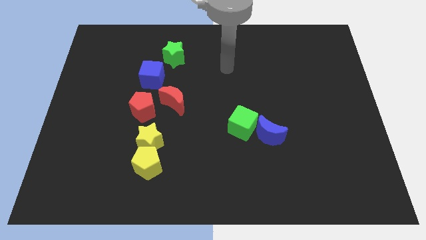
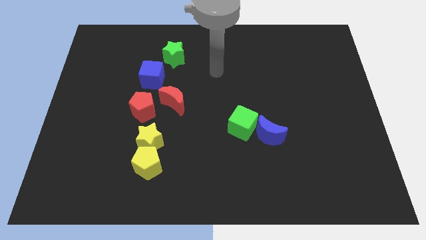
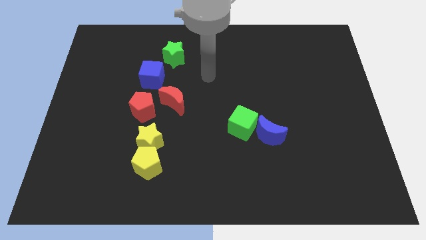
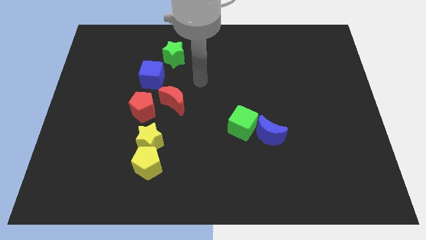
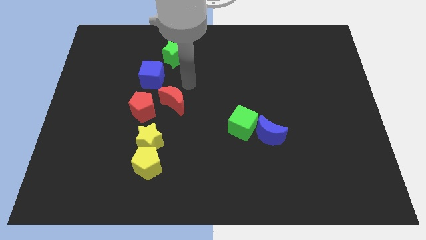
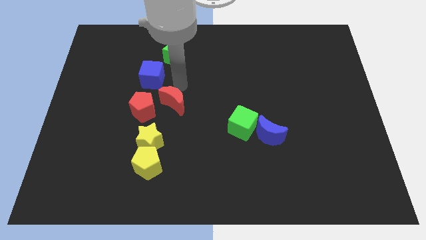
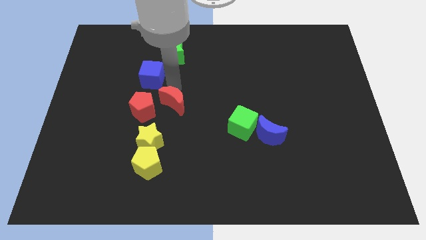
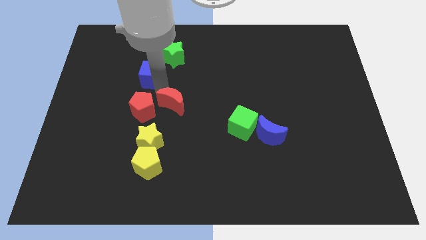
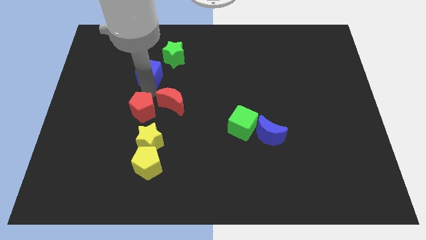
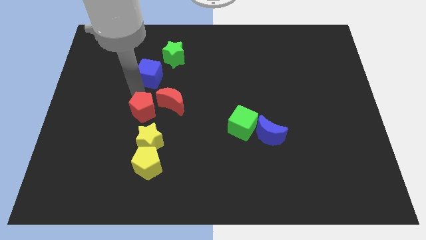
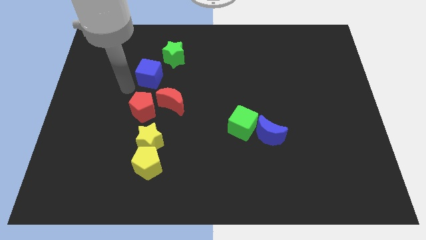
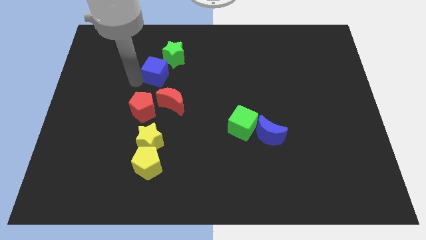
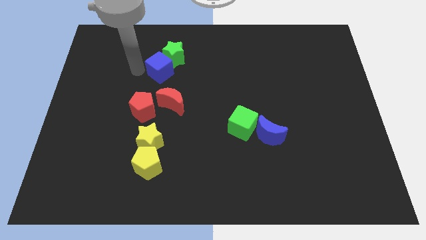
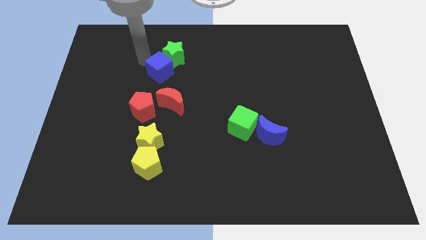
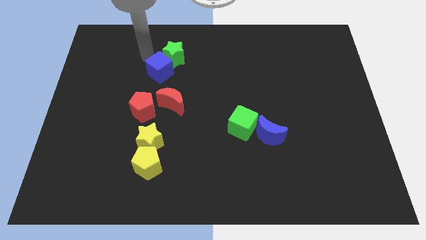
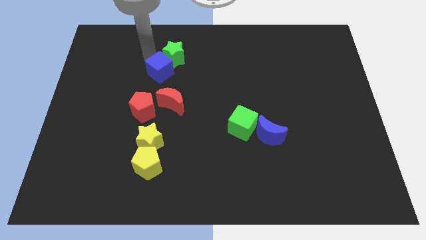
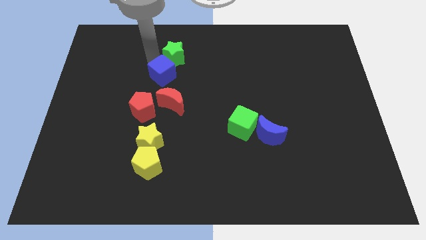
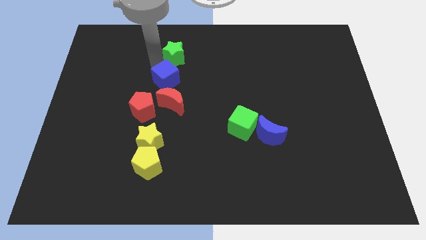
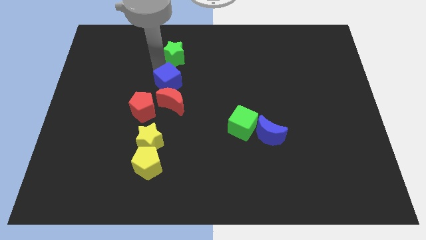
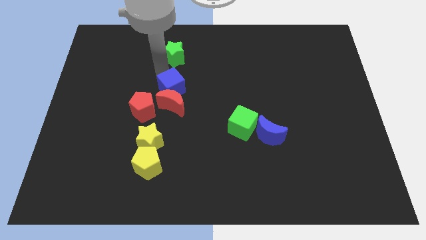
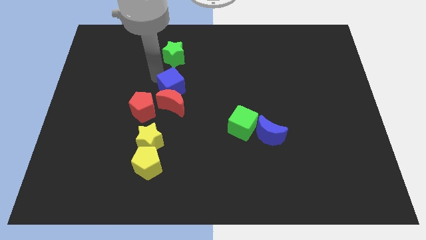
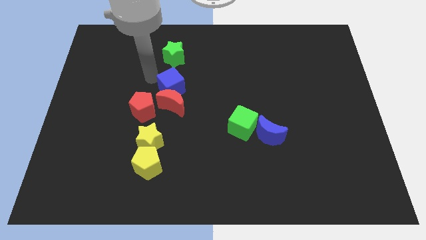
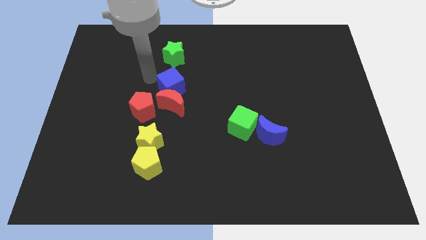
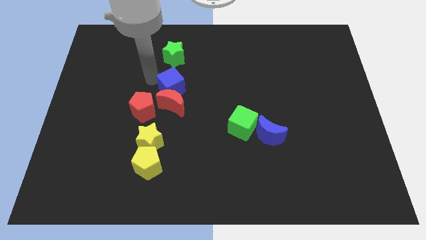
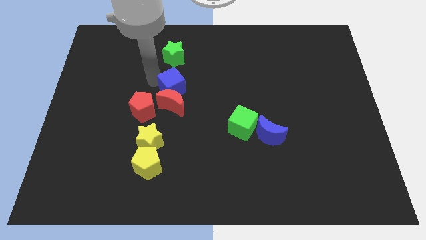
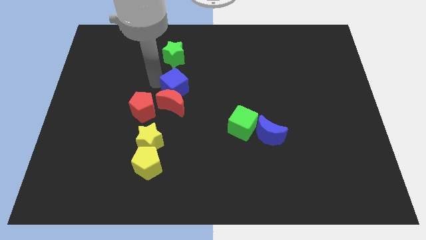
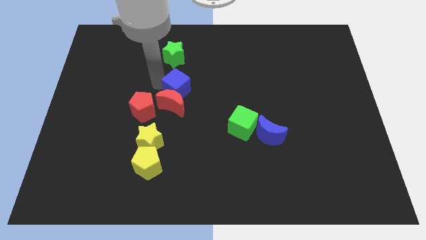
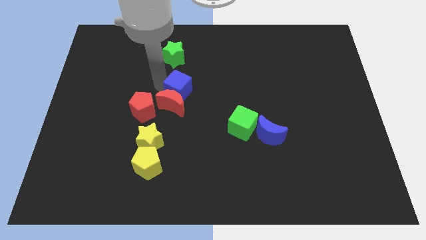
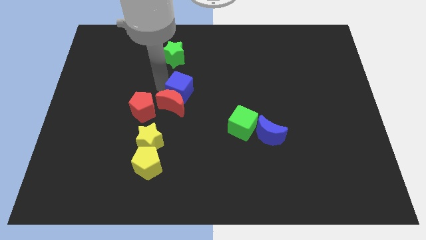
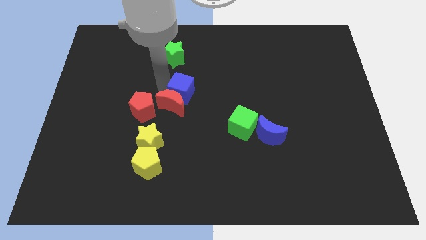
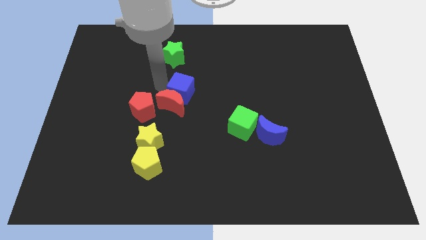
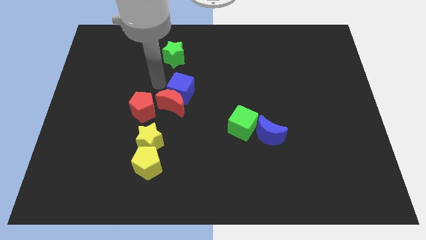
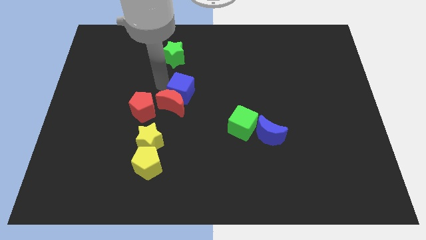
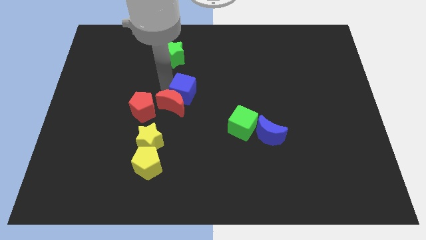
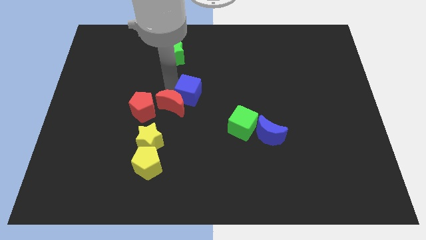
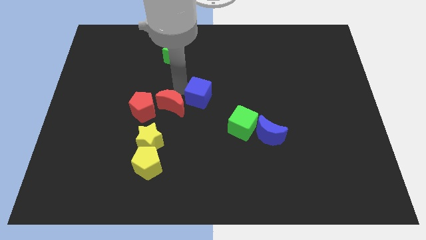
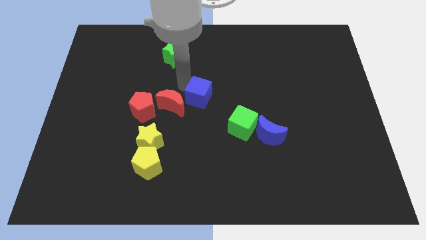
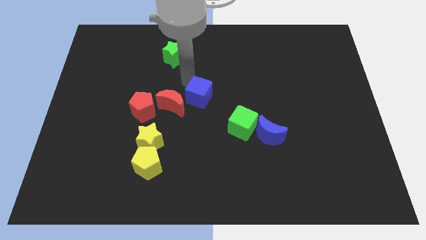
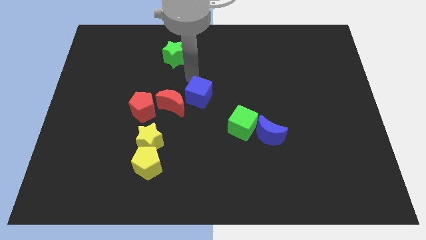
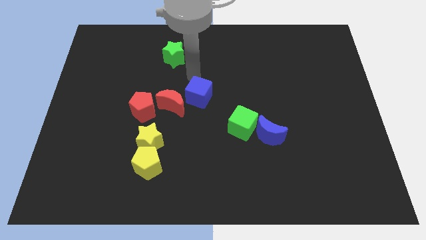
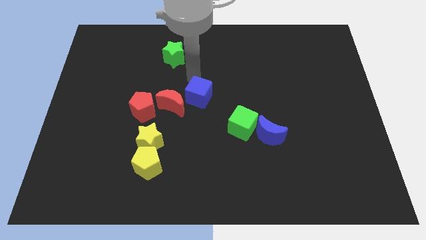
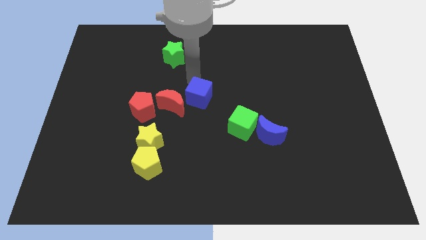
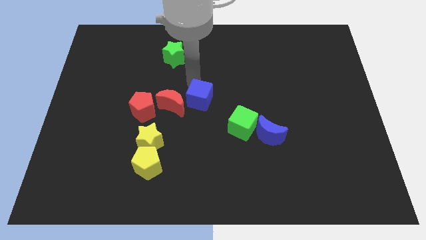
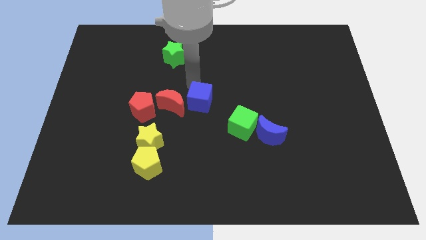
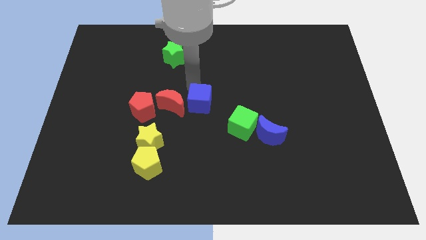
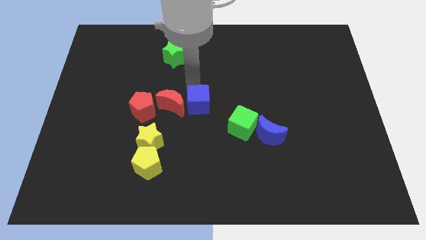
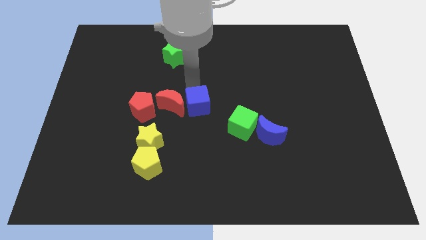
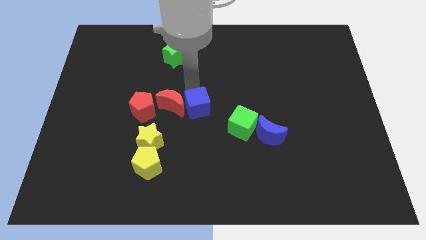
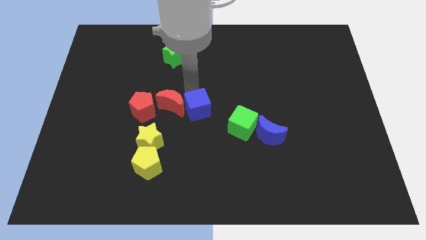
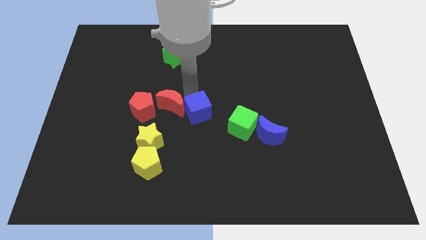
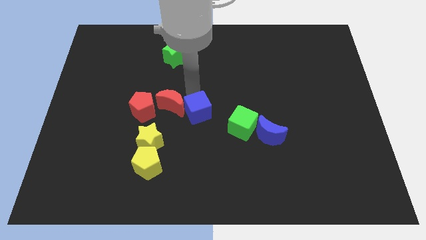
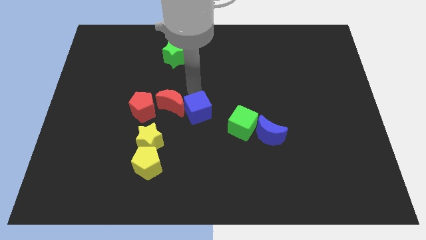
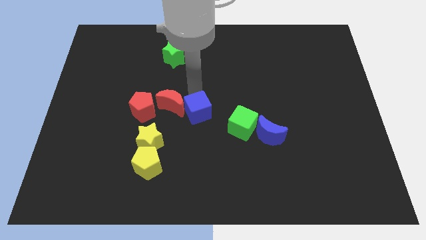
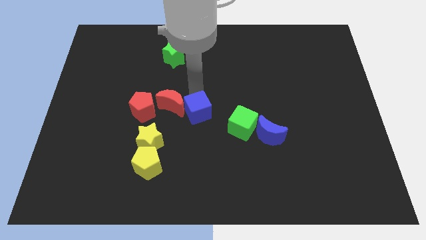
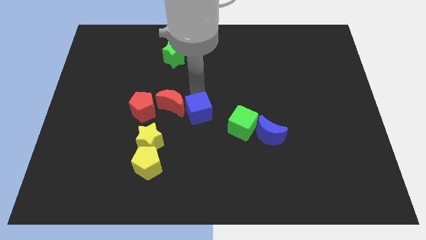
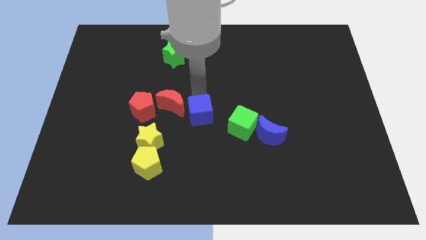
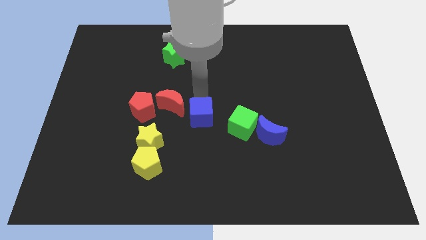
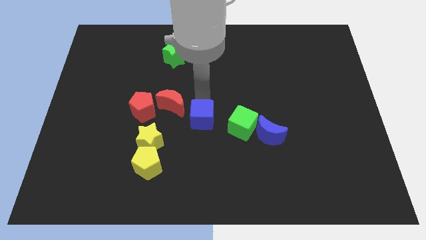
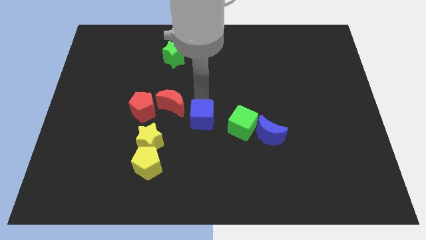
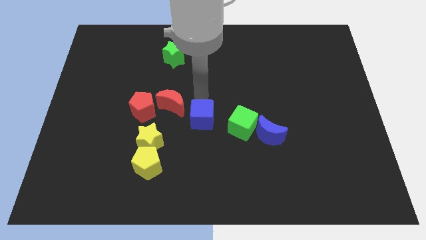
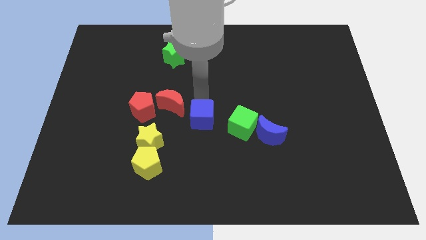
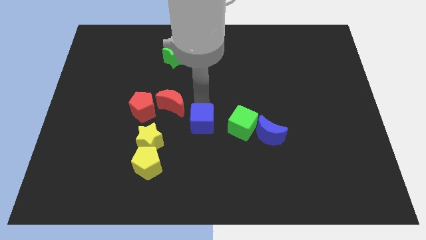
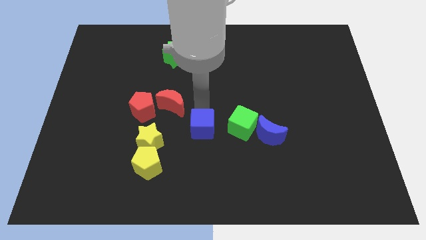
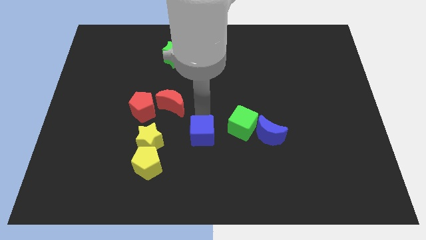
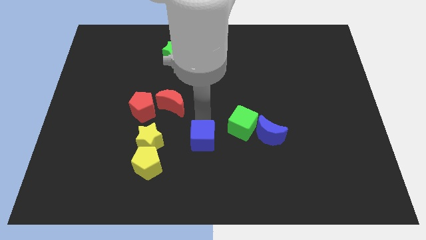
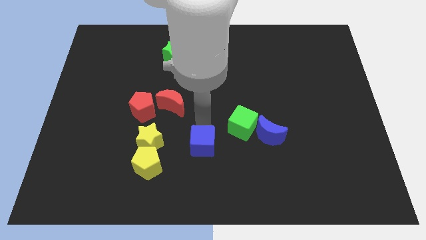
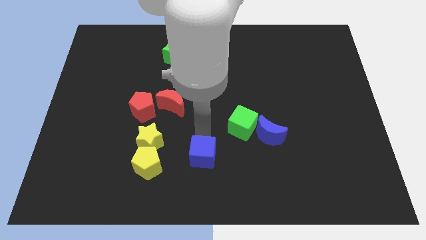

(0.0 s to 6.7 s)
move the blue cube to the bottom side
